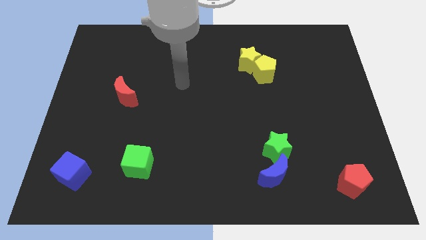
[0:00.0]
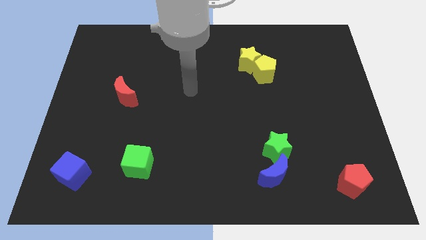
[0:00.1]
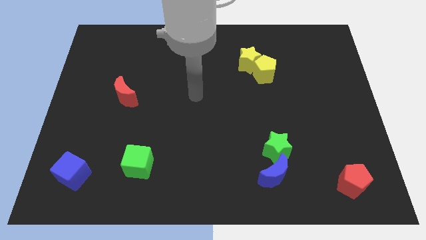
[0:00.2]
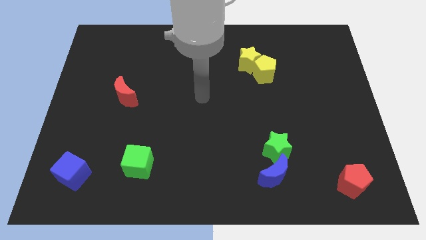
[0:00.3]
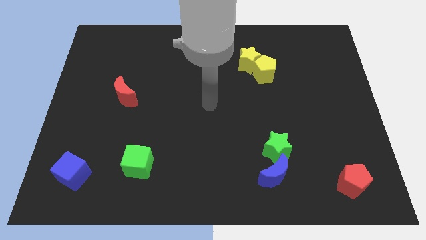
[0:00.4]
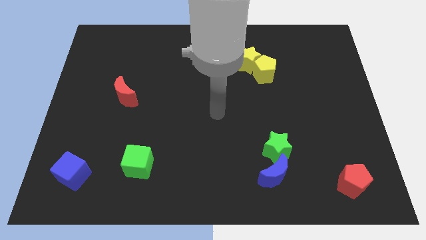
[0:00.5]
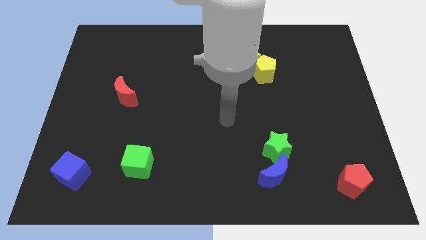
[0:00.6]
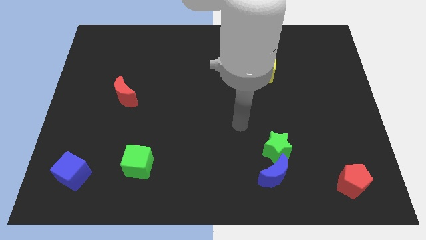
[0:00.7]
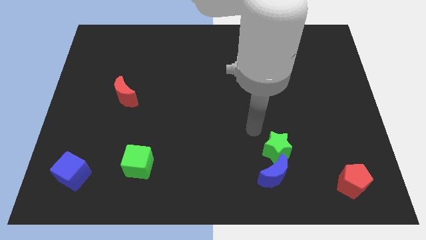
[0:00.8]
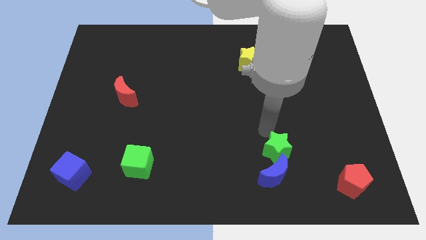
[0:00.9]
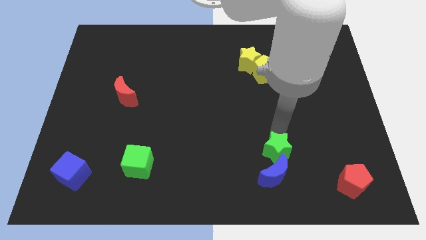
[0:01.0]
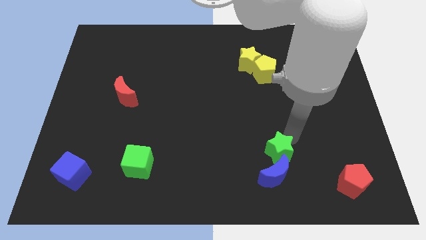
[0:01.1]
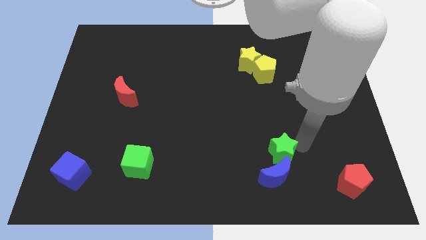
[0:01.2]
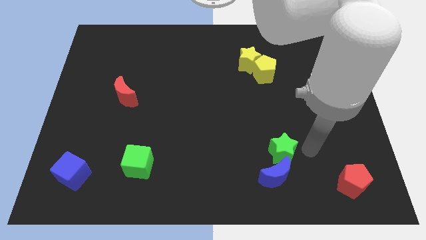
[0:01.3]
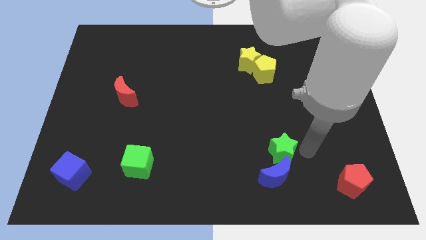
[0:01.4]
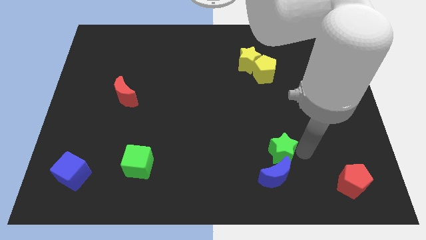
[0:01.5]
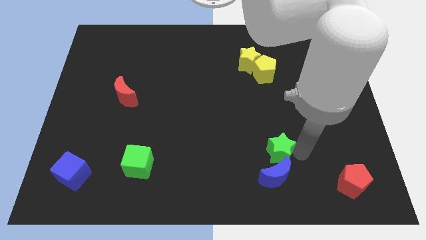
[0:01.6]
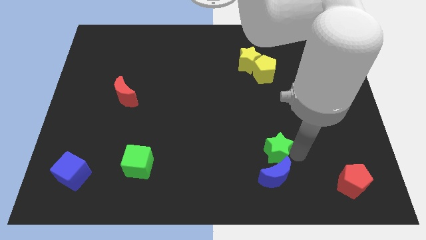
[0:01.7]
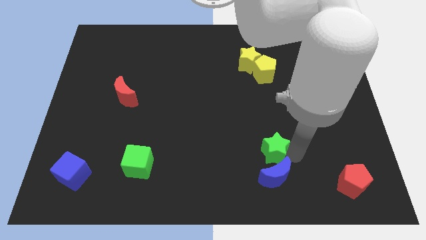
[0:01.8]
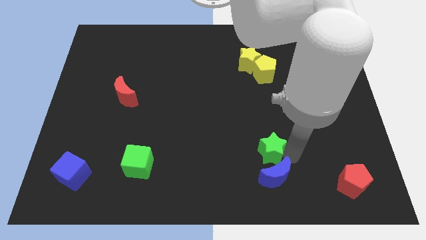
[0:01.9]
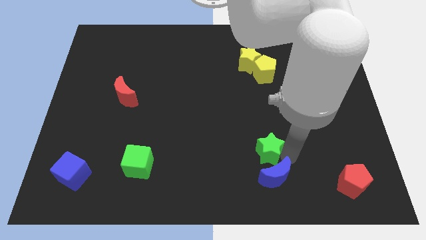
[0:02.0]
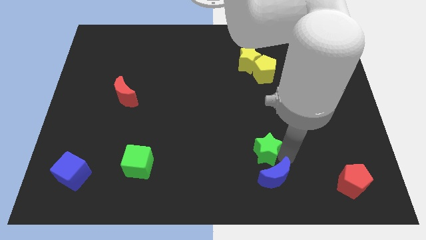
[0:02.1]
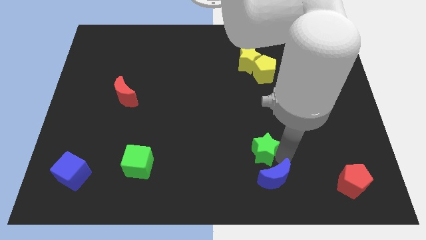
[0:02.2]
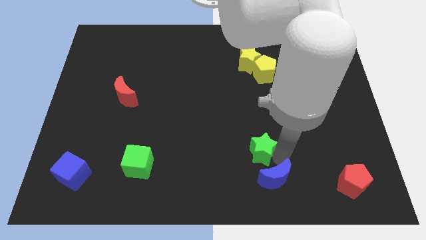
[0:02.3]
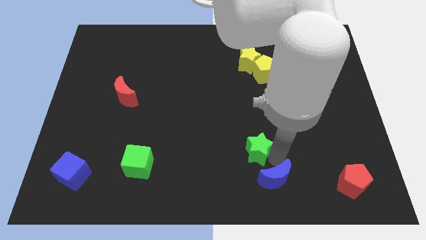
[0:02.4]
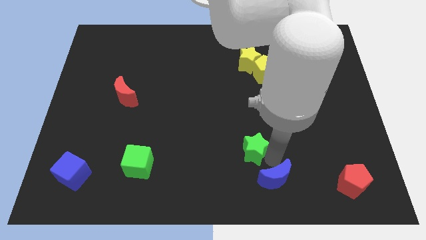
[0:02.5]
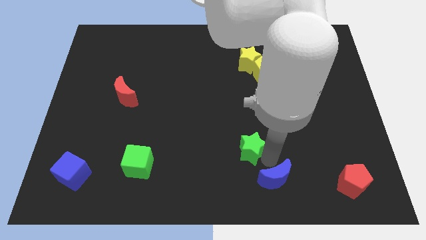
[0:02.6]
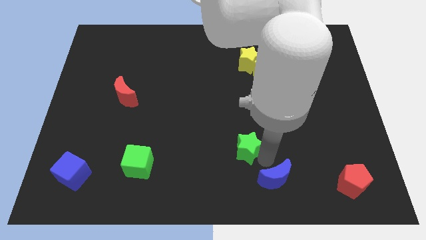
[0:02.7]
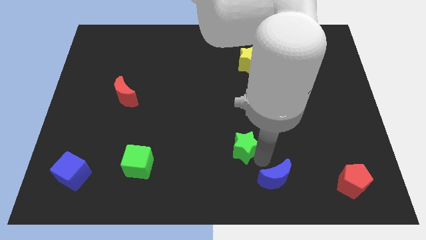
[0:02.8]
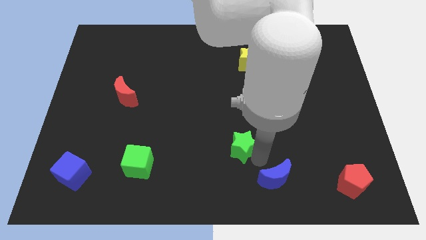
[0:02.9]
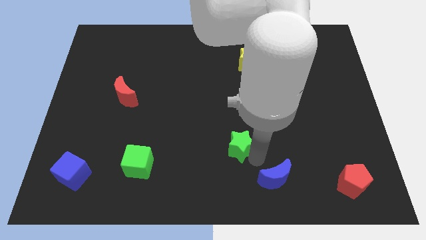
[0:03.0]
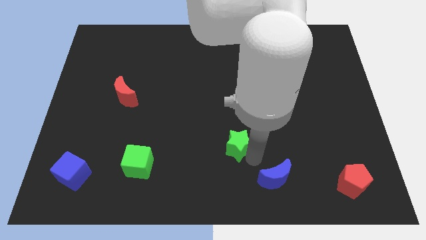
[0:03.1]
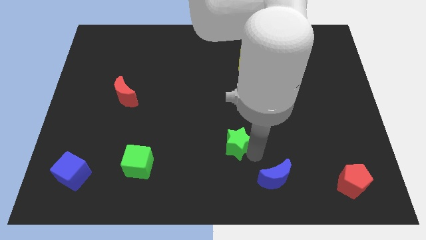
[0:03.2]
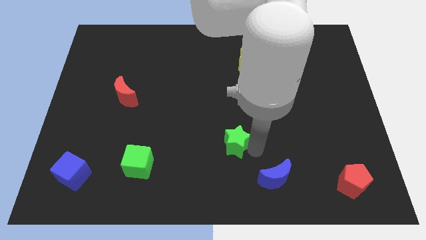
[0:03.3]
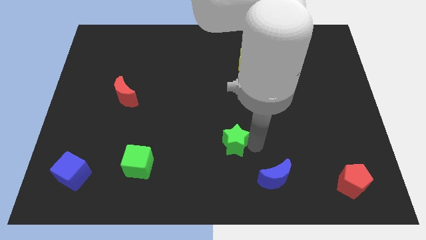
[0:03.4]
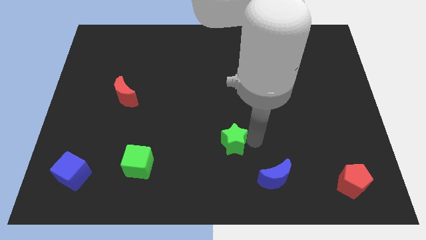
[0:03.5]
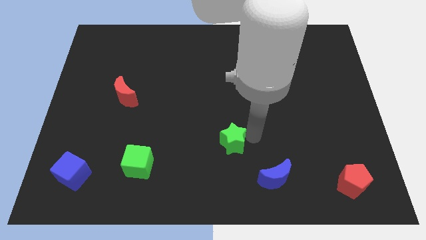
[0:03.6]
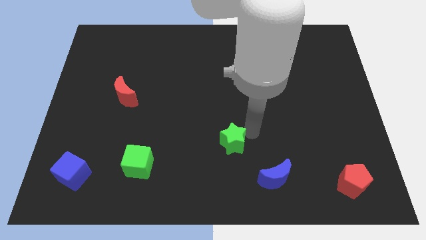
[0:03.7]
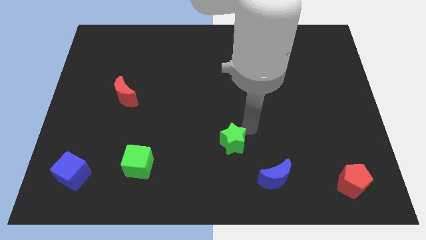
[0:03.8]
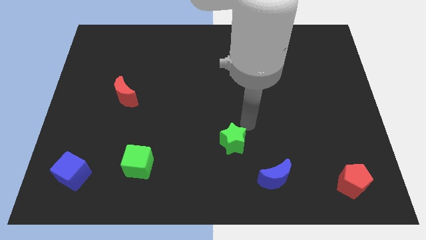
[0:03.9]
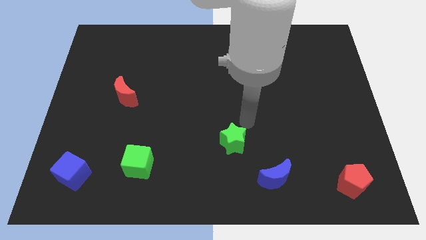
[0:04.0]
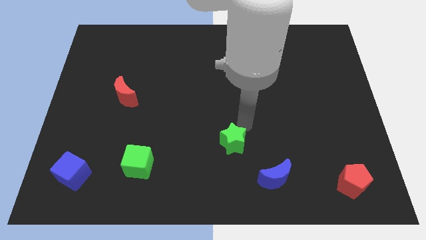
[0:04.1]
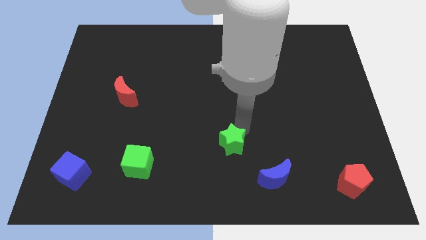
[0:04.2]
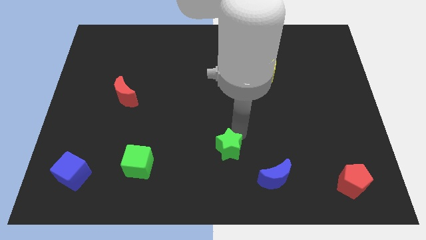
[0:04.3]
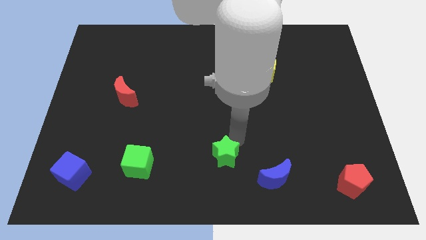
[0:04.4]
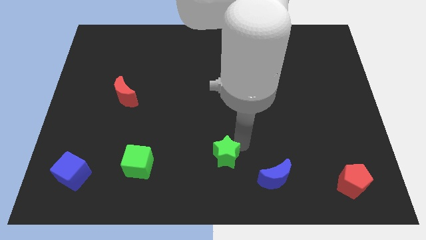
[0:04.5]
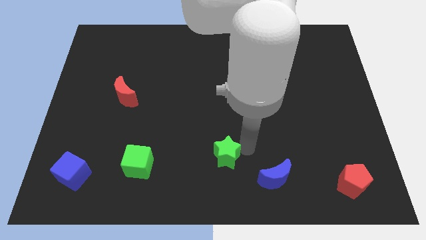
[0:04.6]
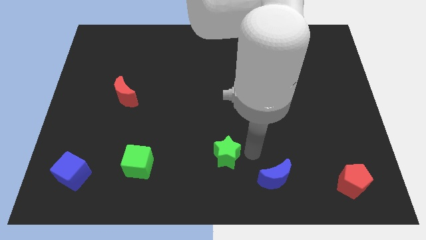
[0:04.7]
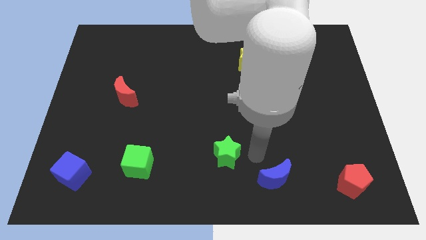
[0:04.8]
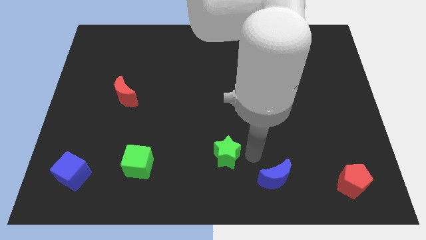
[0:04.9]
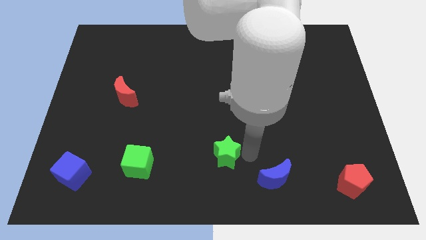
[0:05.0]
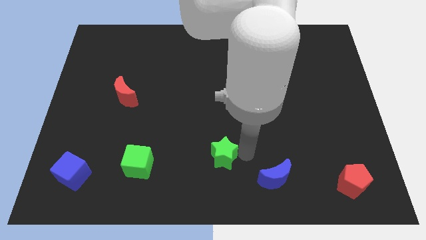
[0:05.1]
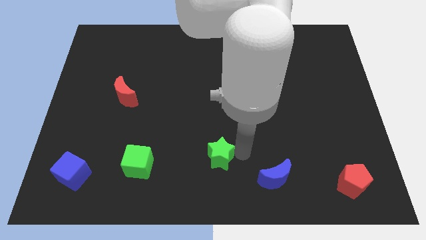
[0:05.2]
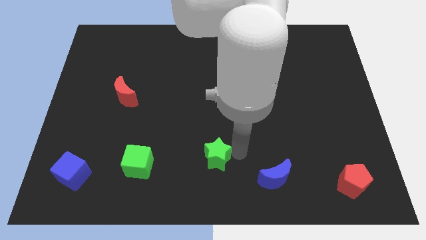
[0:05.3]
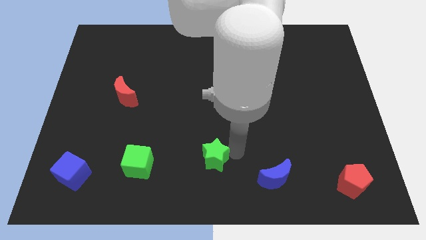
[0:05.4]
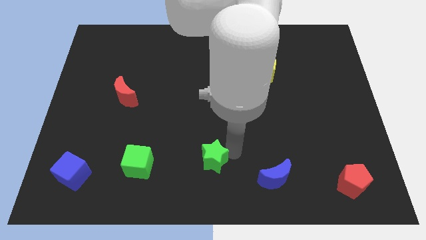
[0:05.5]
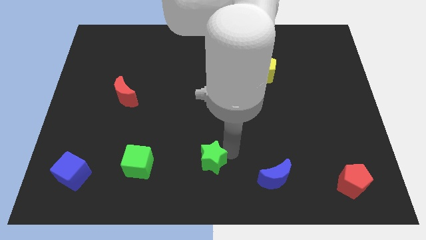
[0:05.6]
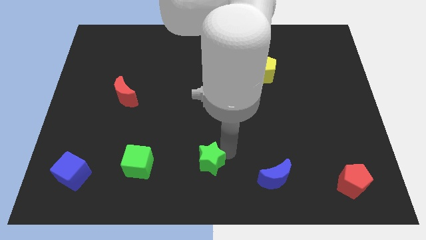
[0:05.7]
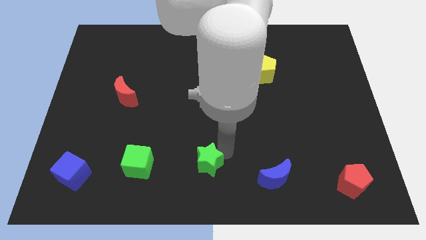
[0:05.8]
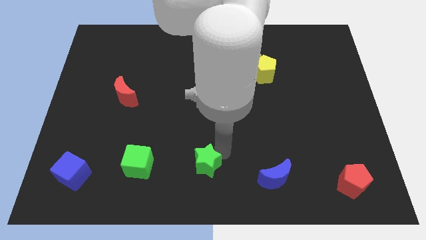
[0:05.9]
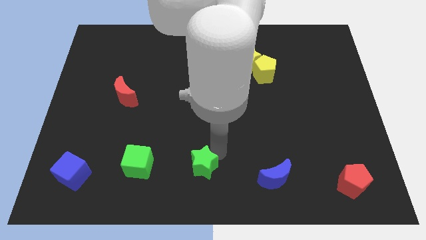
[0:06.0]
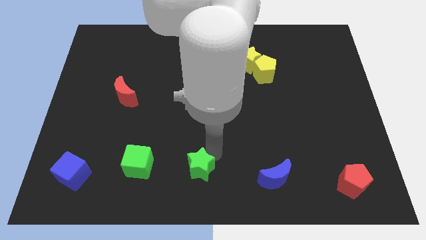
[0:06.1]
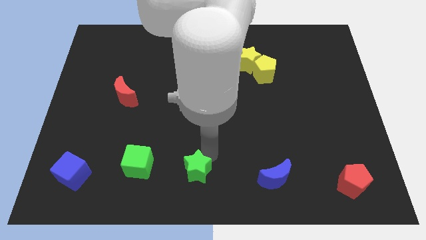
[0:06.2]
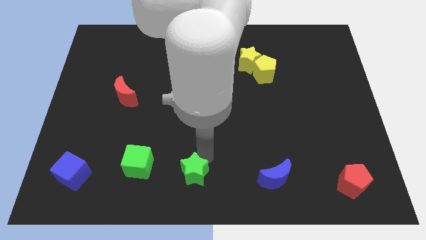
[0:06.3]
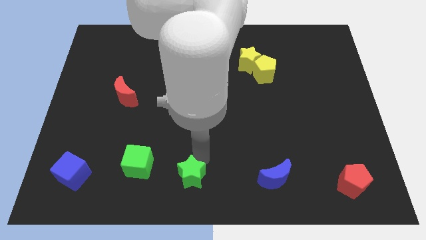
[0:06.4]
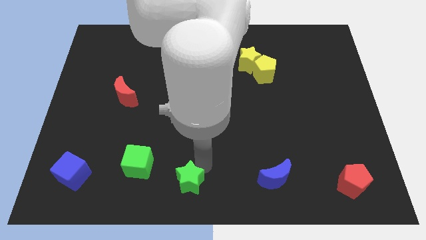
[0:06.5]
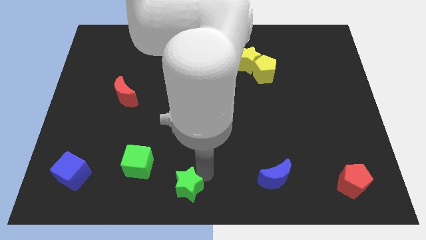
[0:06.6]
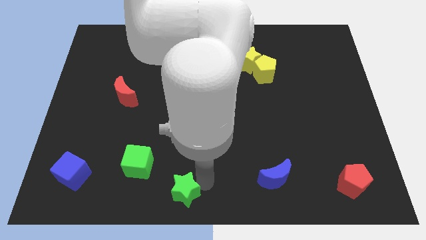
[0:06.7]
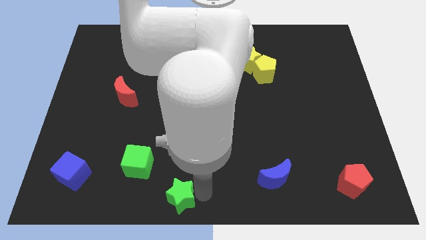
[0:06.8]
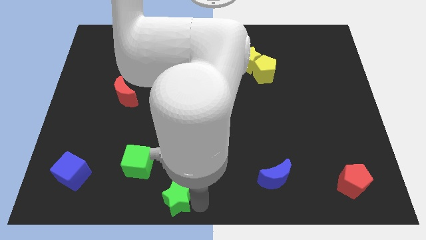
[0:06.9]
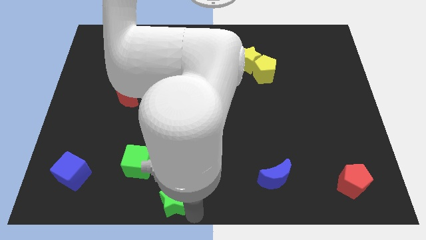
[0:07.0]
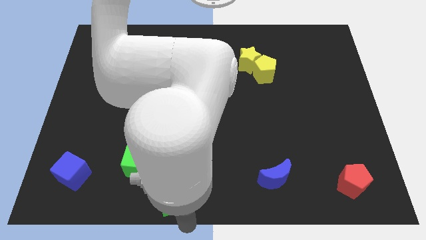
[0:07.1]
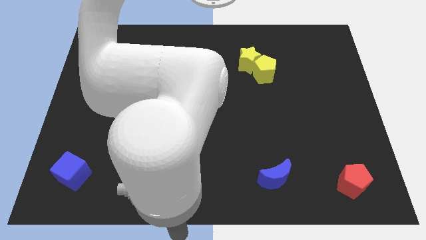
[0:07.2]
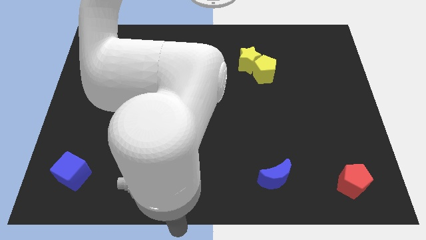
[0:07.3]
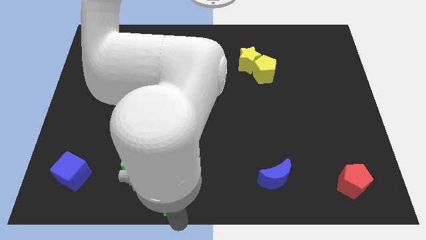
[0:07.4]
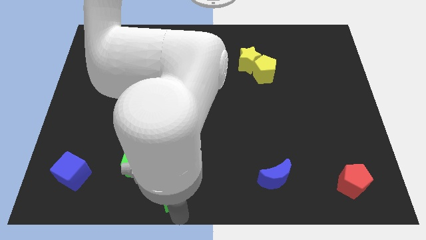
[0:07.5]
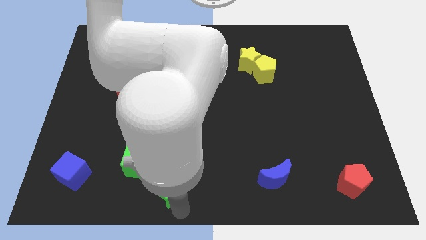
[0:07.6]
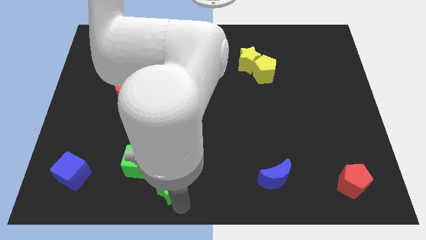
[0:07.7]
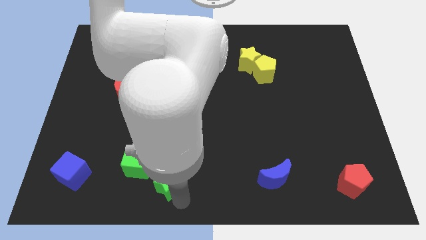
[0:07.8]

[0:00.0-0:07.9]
slide the green star to the left

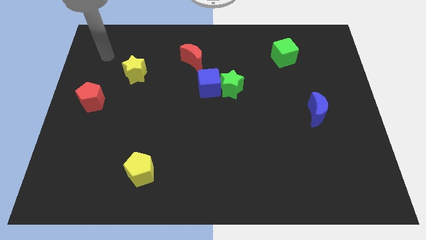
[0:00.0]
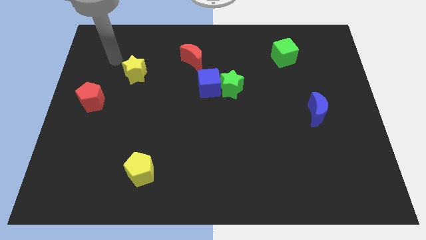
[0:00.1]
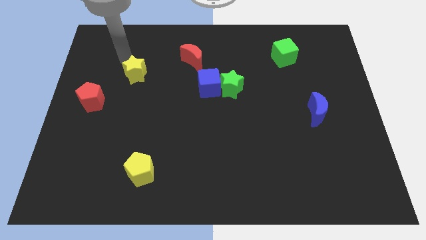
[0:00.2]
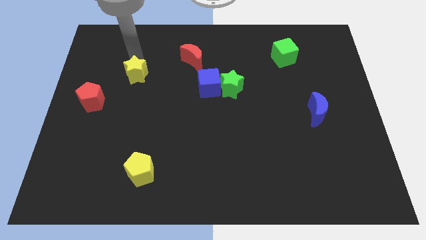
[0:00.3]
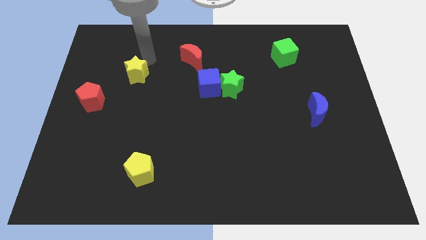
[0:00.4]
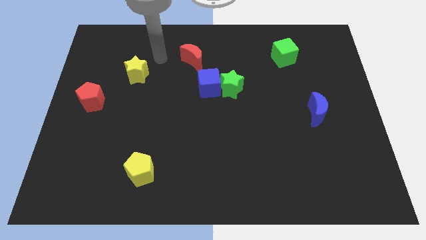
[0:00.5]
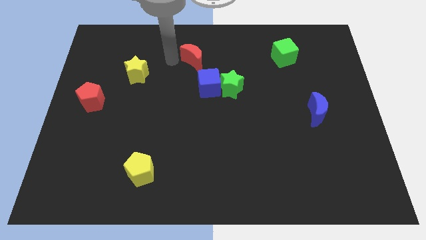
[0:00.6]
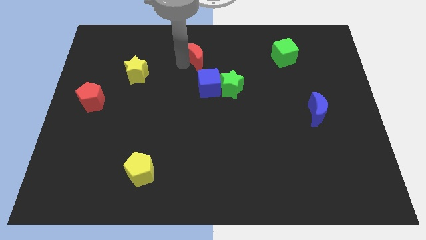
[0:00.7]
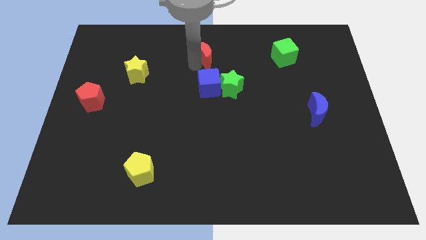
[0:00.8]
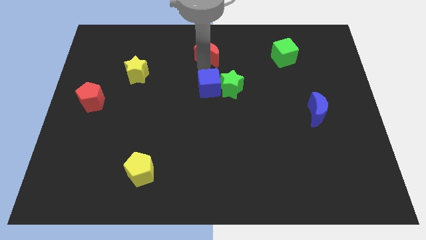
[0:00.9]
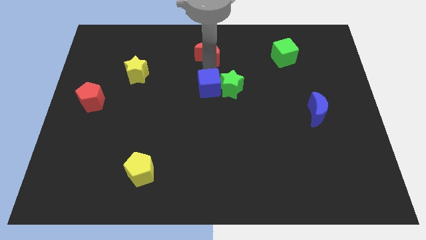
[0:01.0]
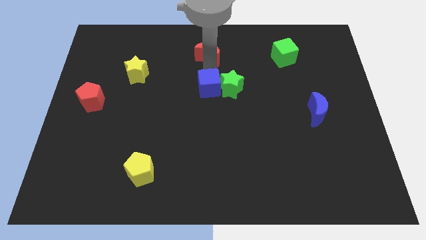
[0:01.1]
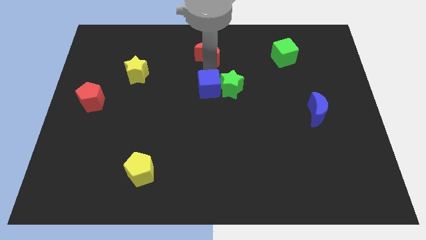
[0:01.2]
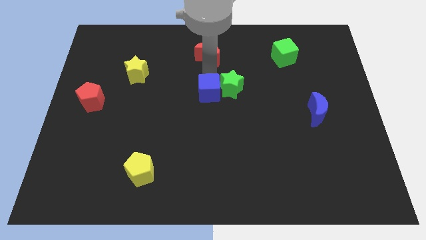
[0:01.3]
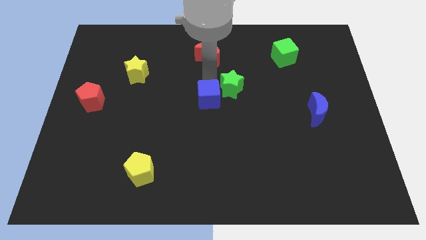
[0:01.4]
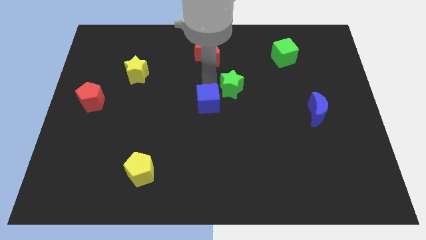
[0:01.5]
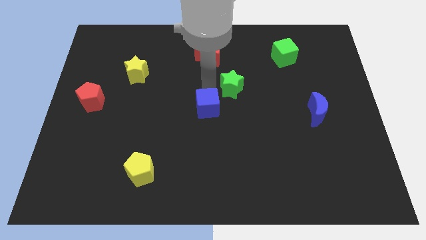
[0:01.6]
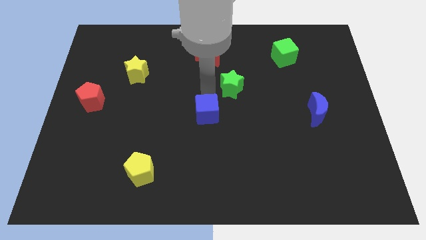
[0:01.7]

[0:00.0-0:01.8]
slide the blue cube a little bit downwards
